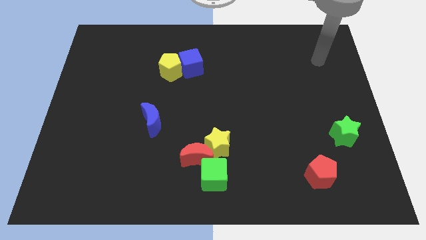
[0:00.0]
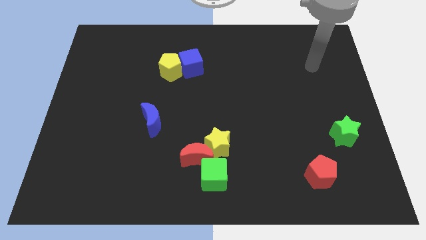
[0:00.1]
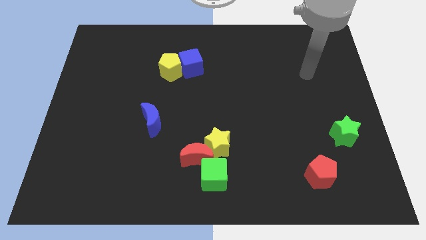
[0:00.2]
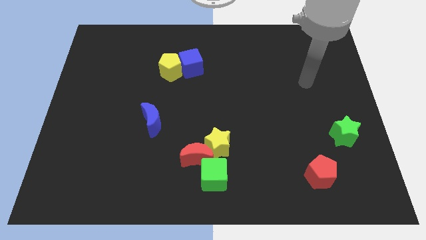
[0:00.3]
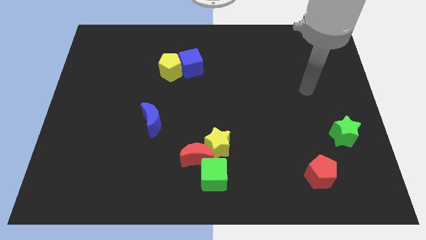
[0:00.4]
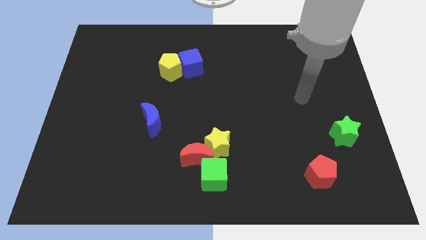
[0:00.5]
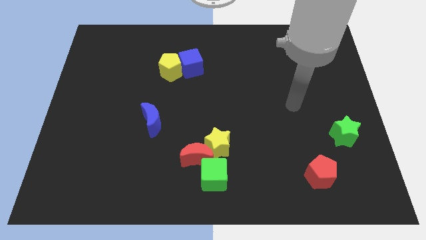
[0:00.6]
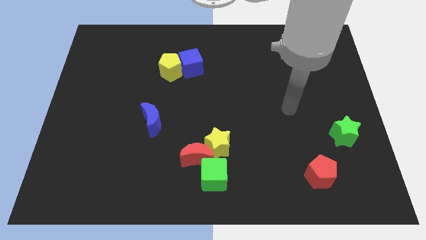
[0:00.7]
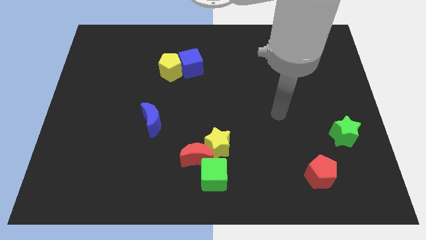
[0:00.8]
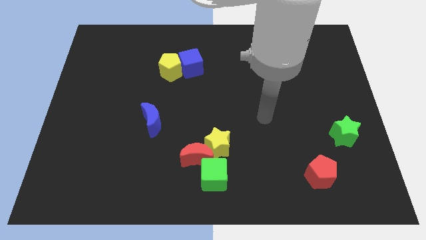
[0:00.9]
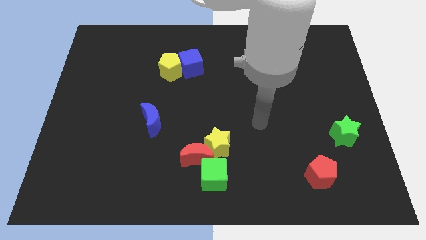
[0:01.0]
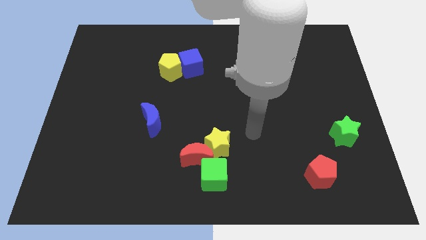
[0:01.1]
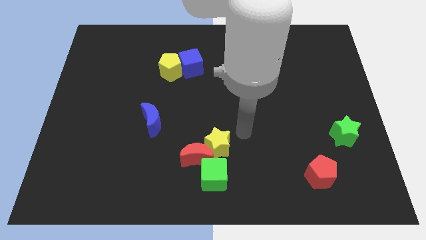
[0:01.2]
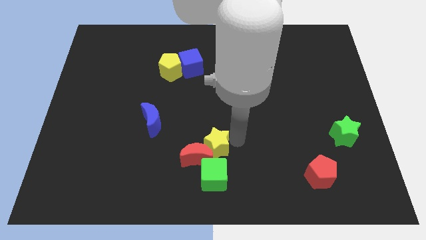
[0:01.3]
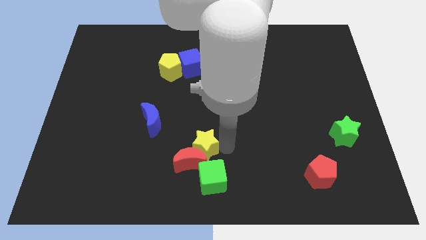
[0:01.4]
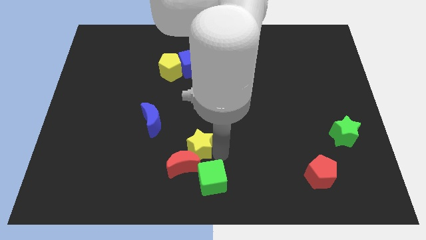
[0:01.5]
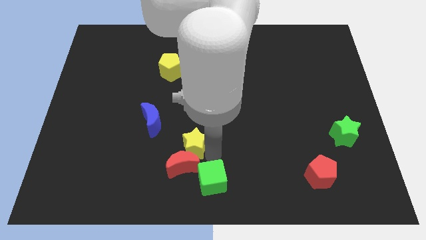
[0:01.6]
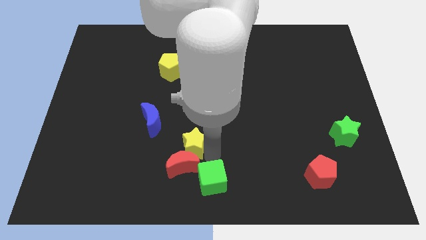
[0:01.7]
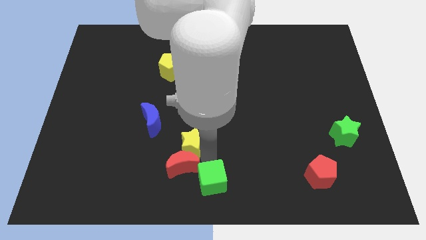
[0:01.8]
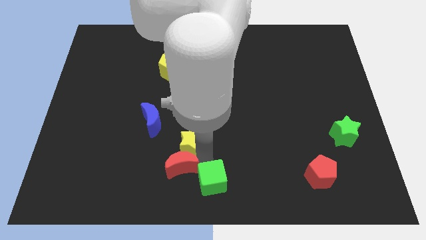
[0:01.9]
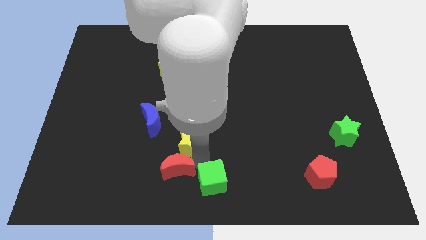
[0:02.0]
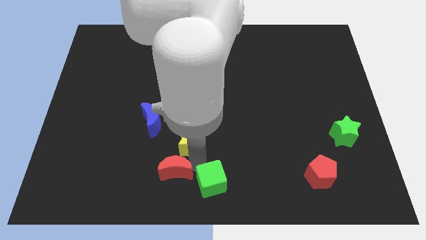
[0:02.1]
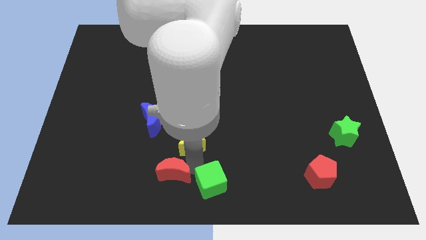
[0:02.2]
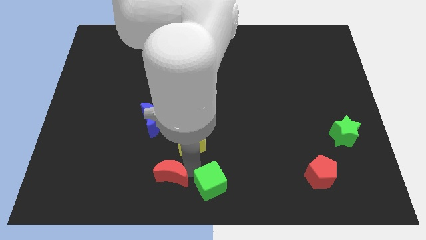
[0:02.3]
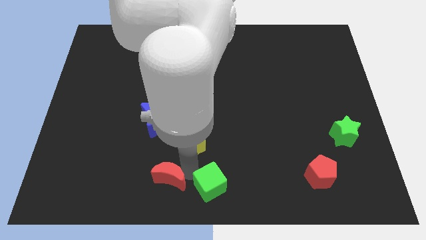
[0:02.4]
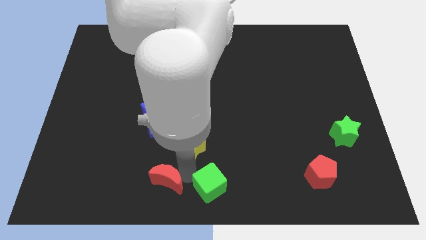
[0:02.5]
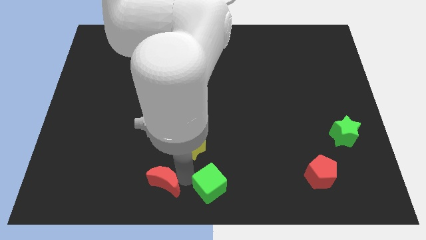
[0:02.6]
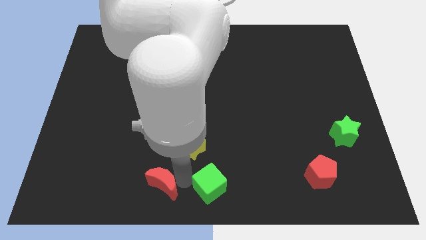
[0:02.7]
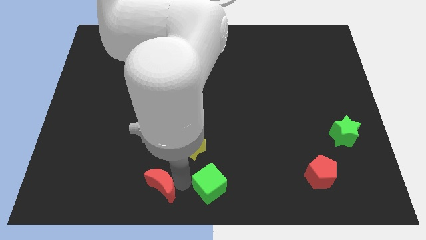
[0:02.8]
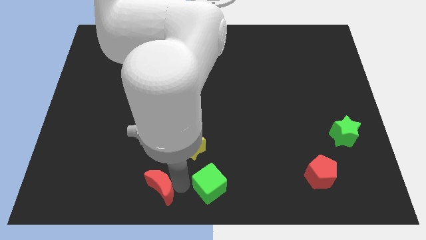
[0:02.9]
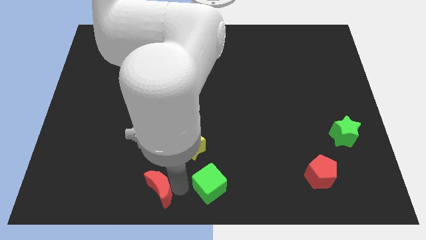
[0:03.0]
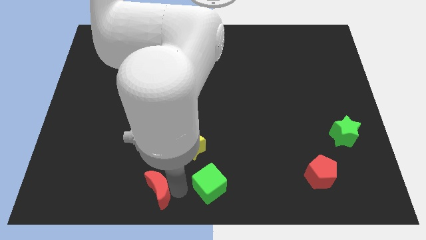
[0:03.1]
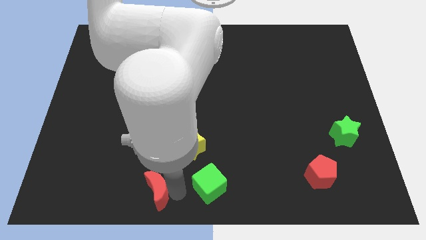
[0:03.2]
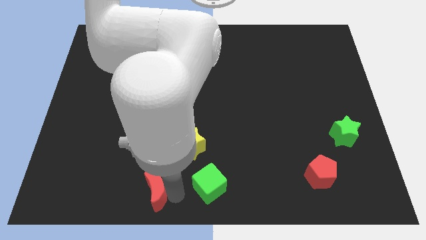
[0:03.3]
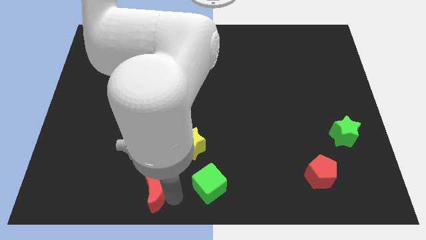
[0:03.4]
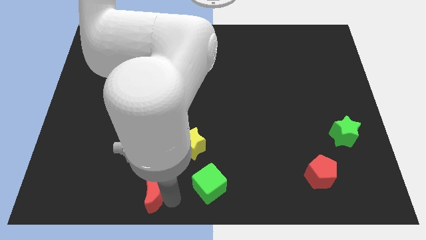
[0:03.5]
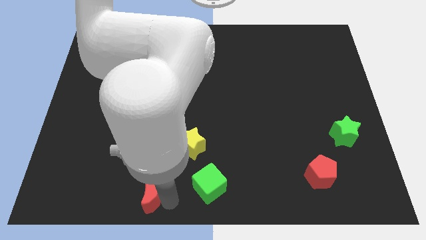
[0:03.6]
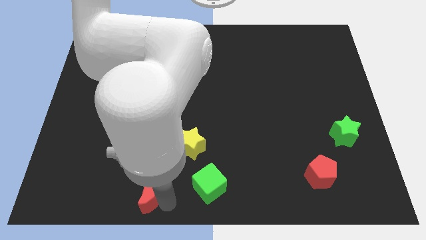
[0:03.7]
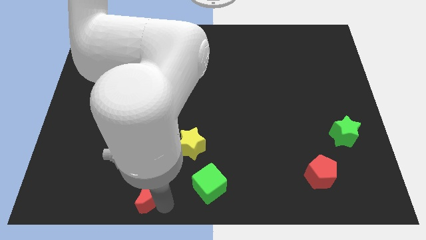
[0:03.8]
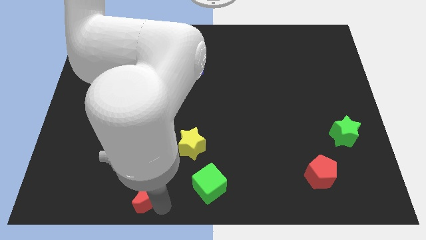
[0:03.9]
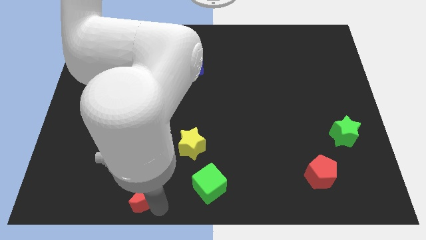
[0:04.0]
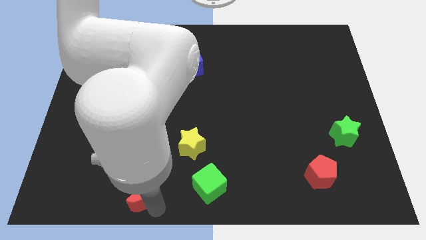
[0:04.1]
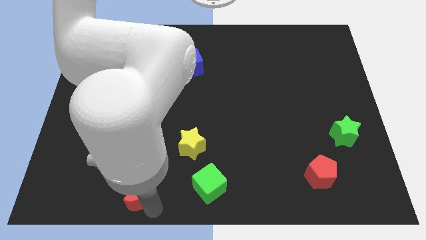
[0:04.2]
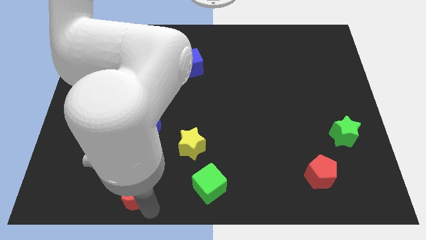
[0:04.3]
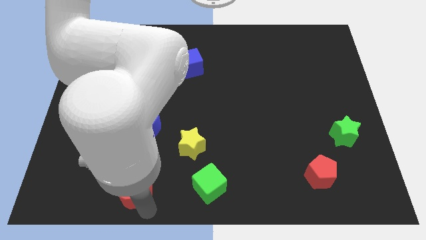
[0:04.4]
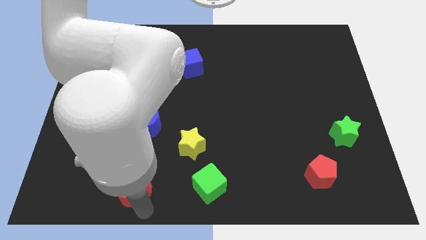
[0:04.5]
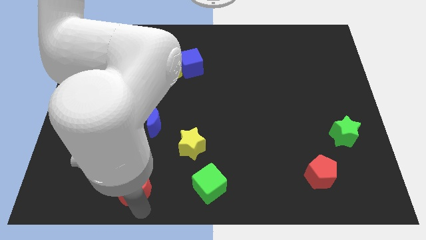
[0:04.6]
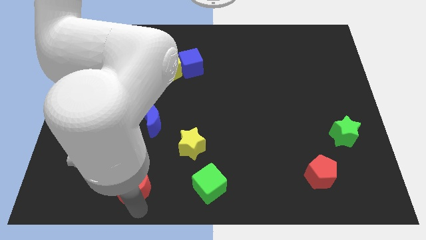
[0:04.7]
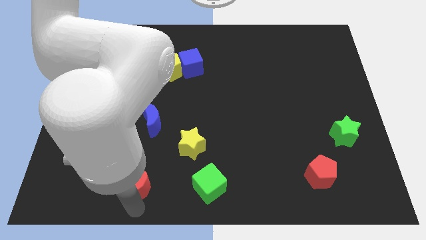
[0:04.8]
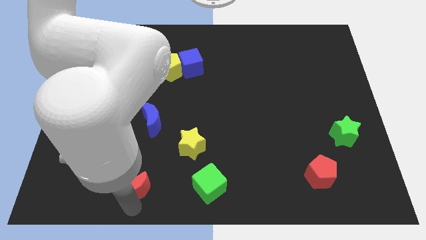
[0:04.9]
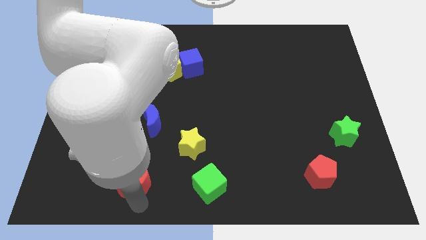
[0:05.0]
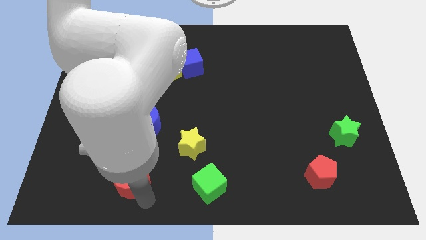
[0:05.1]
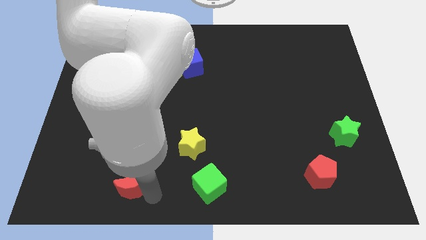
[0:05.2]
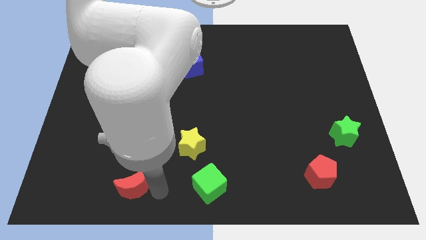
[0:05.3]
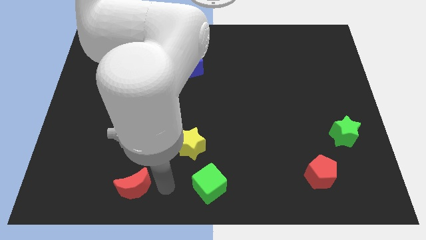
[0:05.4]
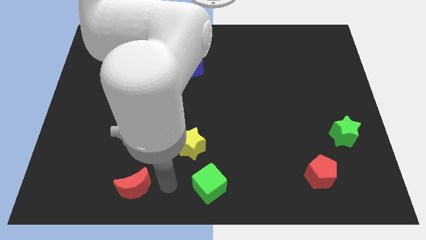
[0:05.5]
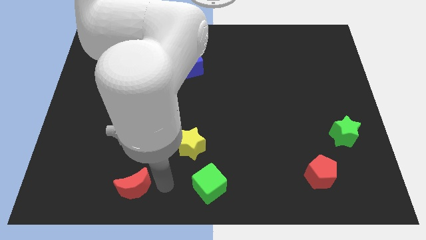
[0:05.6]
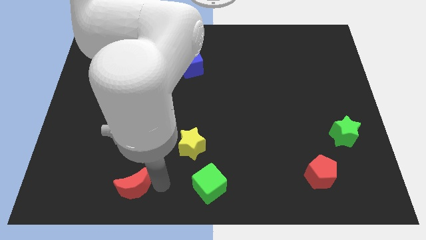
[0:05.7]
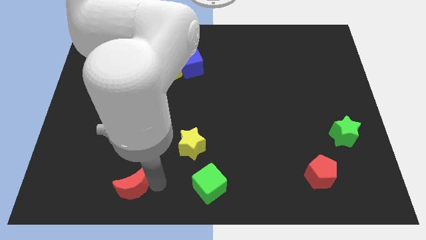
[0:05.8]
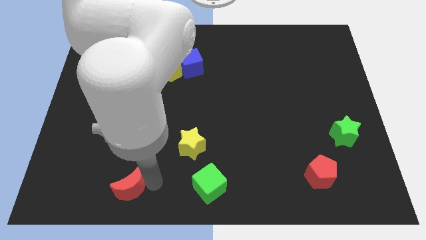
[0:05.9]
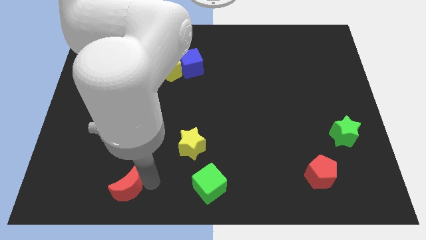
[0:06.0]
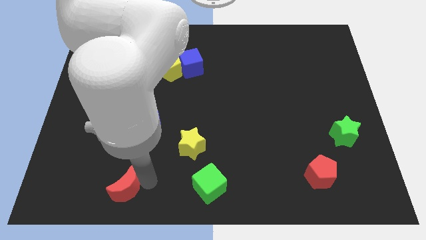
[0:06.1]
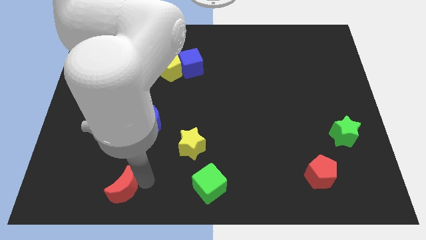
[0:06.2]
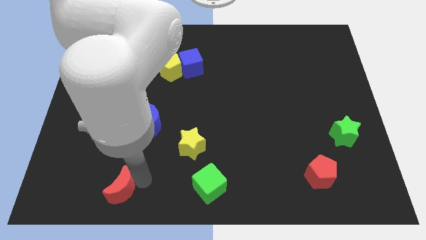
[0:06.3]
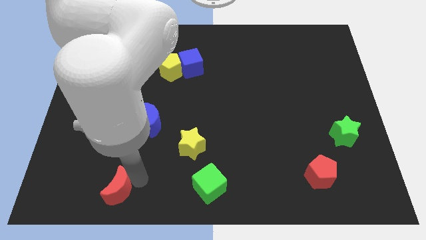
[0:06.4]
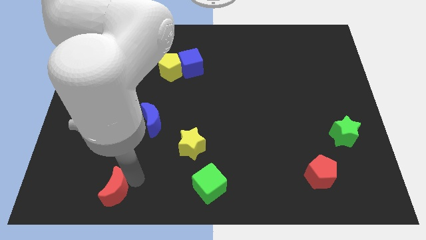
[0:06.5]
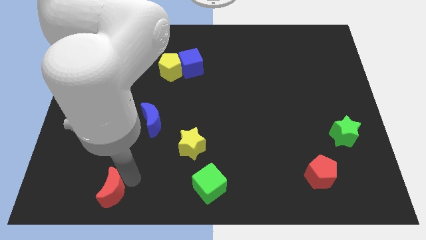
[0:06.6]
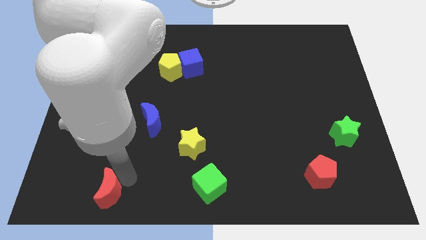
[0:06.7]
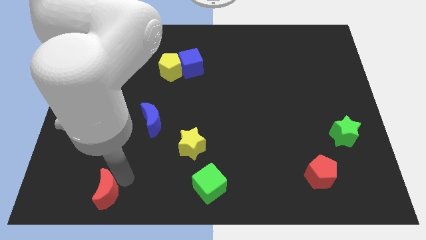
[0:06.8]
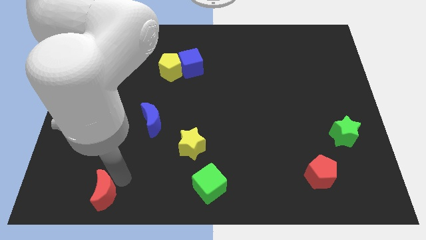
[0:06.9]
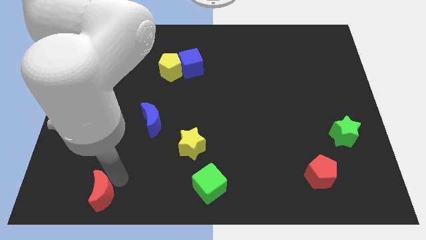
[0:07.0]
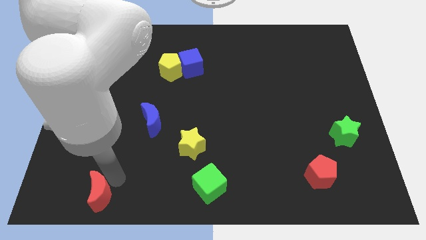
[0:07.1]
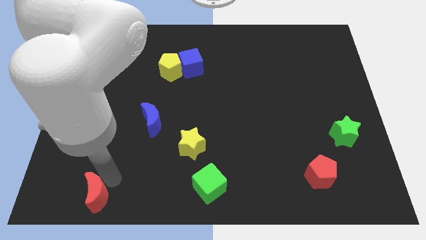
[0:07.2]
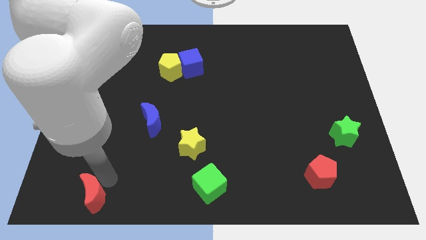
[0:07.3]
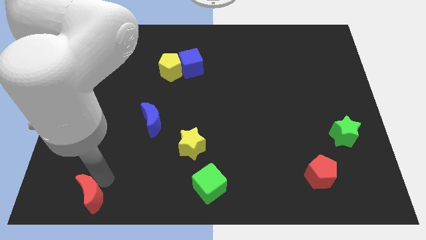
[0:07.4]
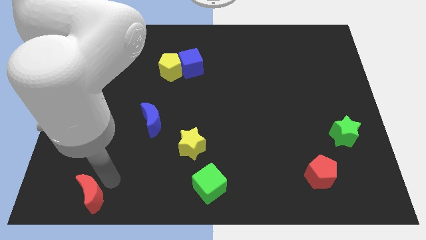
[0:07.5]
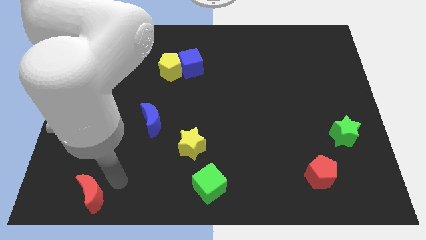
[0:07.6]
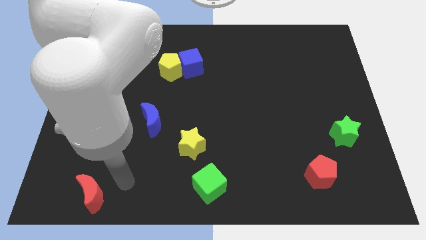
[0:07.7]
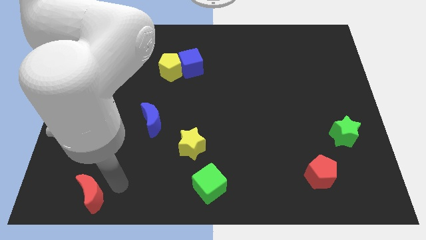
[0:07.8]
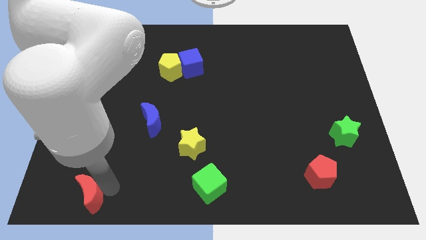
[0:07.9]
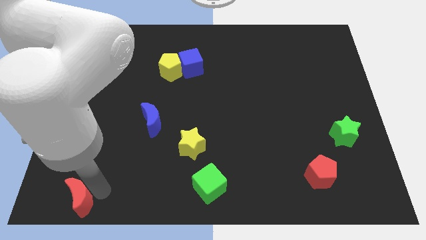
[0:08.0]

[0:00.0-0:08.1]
put the red moon to the bottom left
